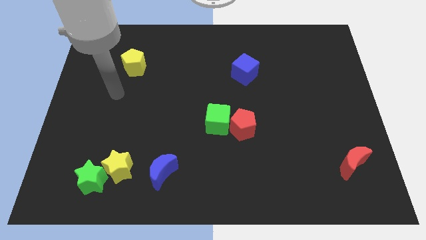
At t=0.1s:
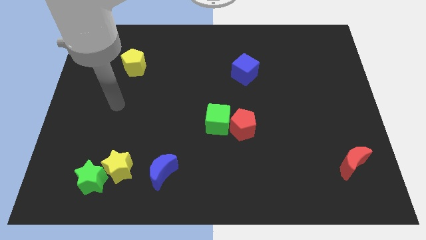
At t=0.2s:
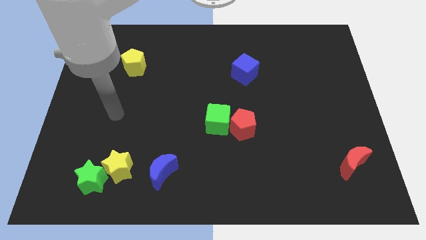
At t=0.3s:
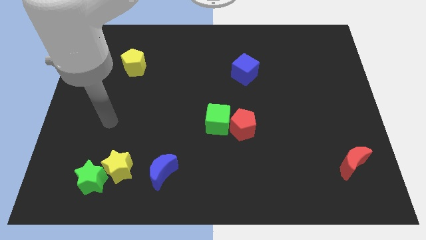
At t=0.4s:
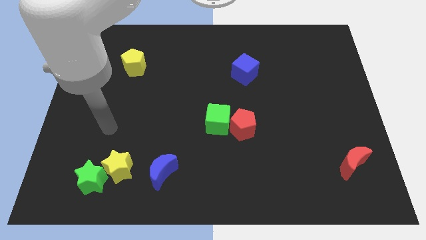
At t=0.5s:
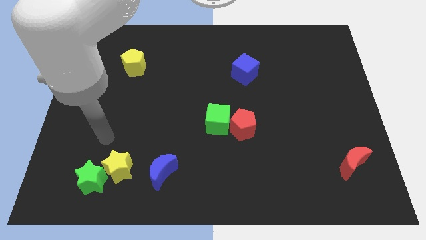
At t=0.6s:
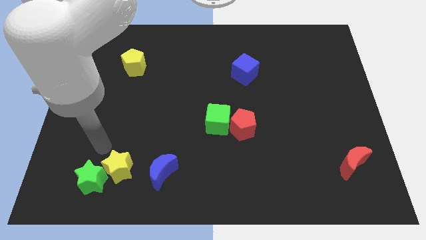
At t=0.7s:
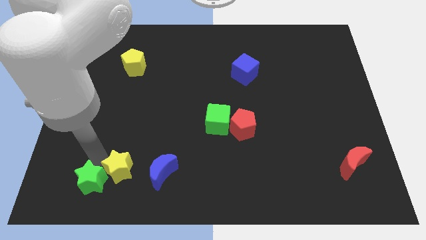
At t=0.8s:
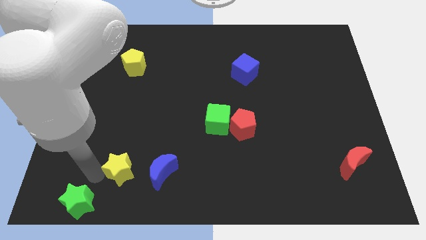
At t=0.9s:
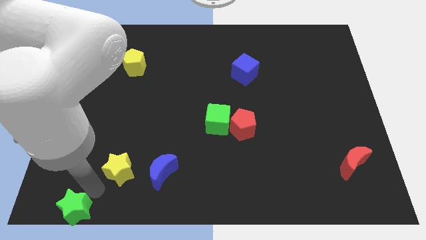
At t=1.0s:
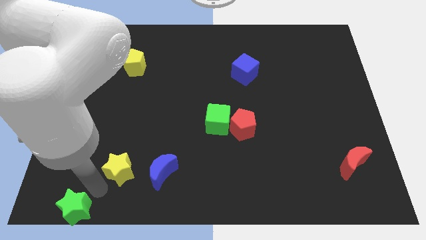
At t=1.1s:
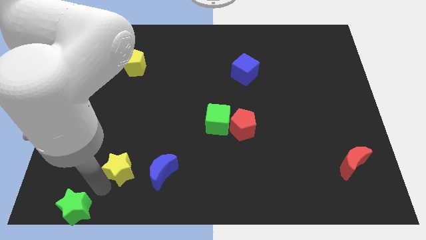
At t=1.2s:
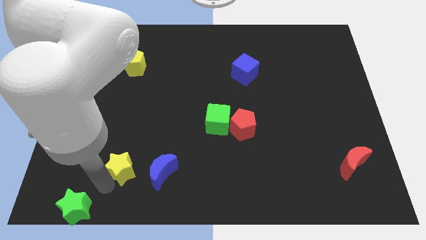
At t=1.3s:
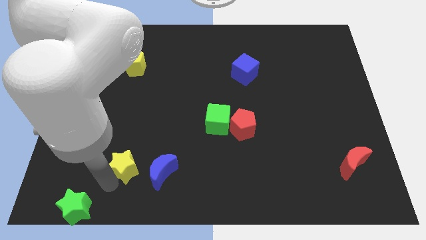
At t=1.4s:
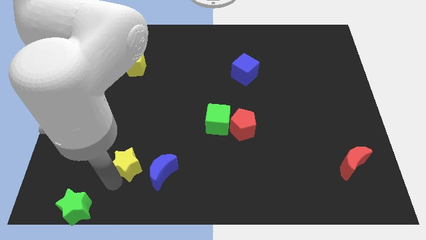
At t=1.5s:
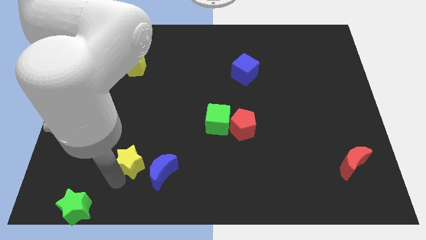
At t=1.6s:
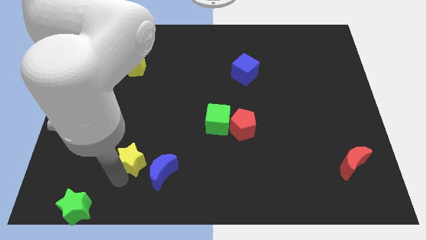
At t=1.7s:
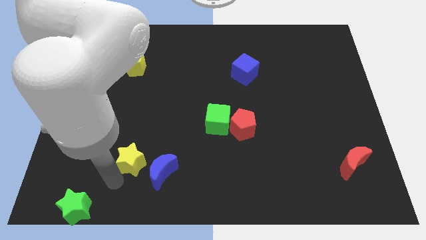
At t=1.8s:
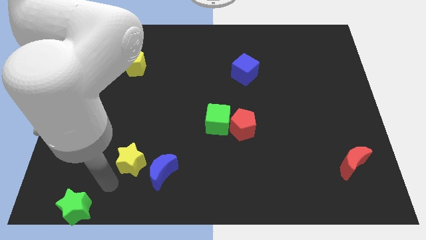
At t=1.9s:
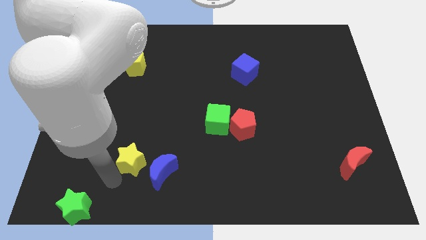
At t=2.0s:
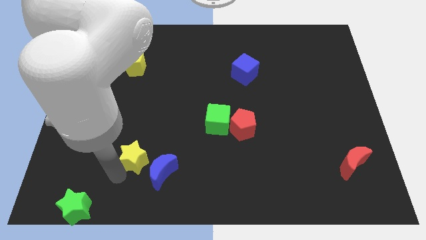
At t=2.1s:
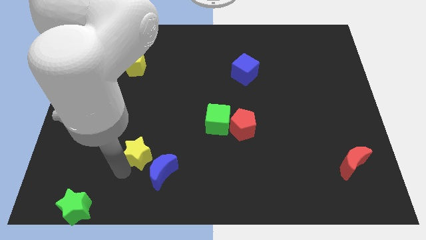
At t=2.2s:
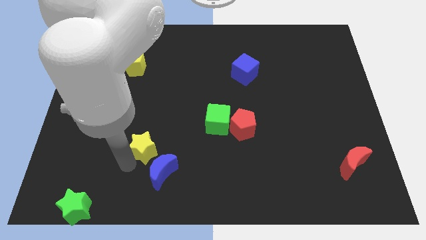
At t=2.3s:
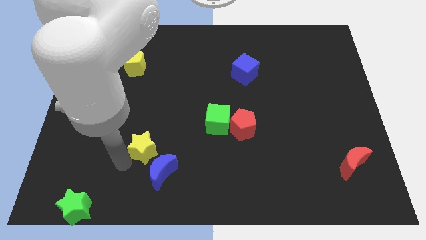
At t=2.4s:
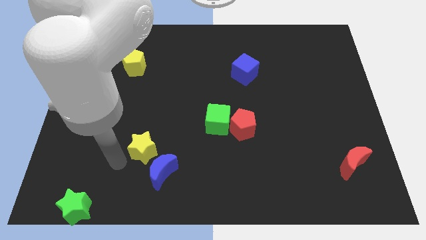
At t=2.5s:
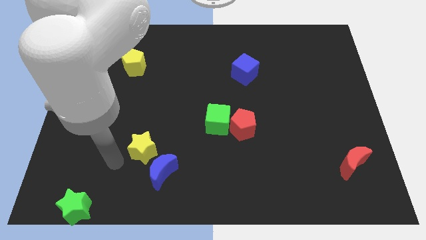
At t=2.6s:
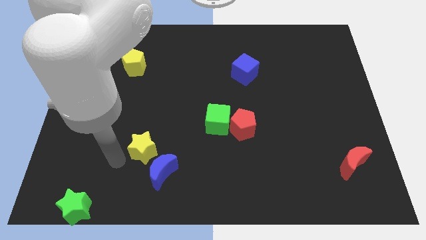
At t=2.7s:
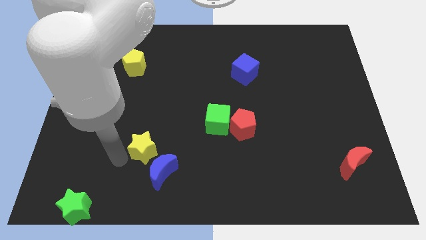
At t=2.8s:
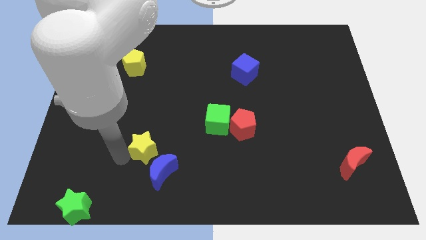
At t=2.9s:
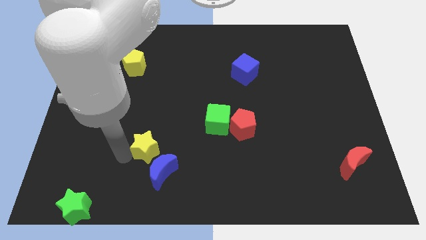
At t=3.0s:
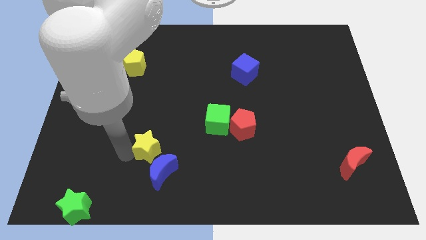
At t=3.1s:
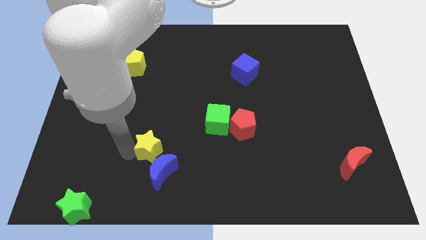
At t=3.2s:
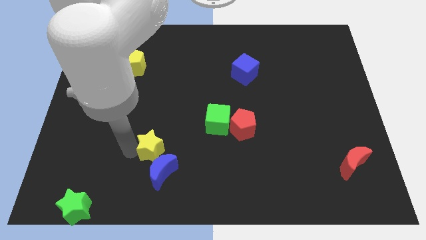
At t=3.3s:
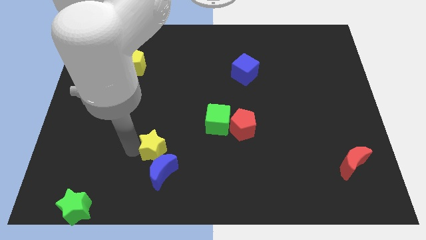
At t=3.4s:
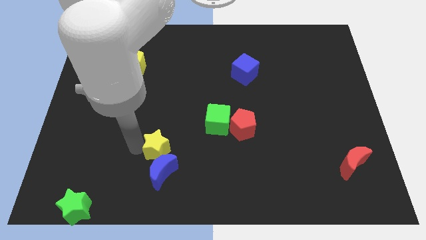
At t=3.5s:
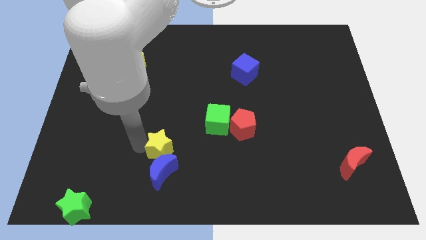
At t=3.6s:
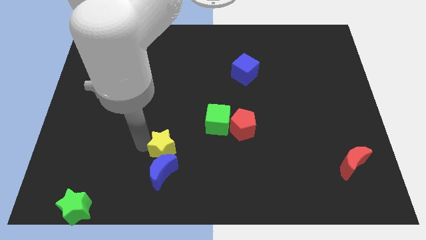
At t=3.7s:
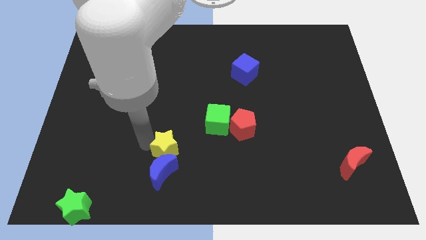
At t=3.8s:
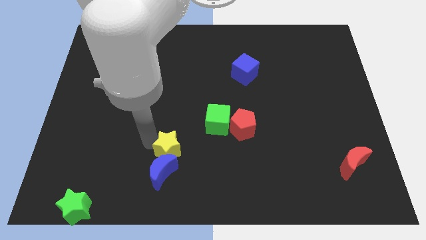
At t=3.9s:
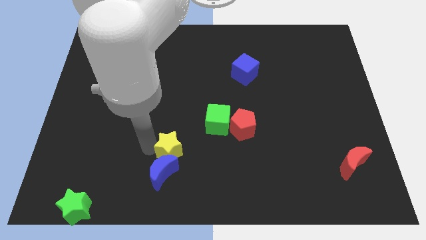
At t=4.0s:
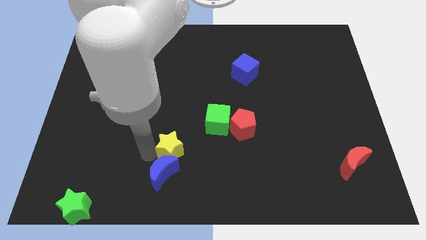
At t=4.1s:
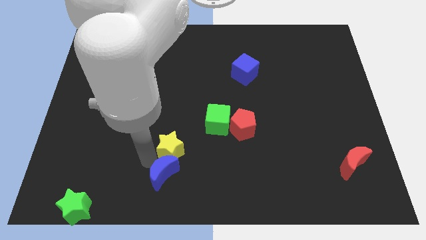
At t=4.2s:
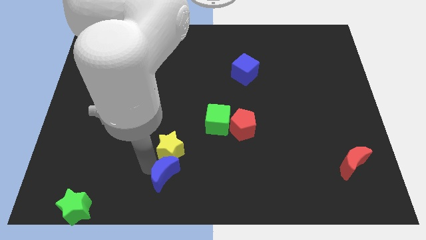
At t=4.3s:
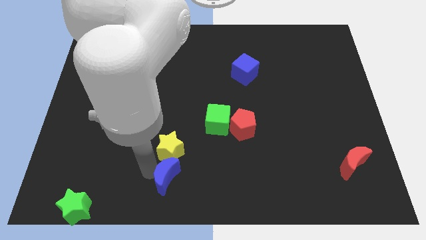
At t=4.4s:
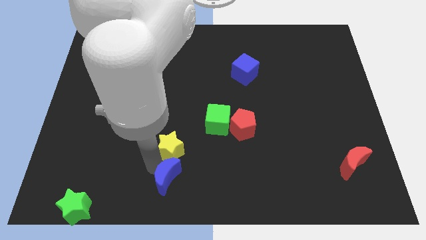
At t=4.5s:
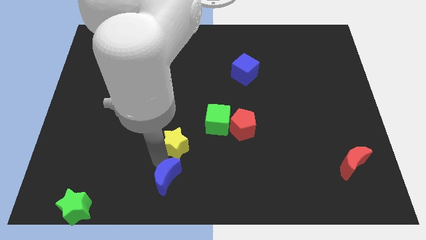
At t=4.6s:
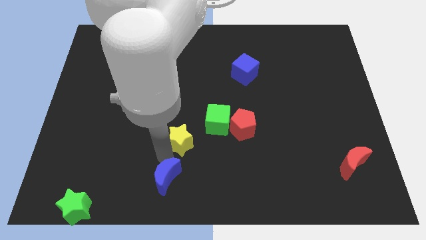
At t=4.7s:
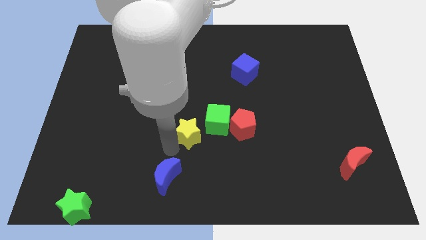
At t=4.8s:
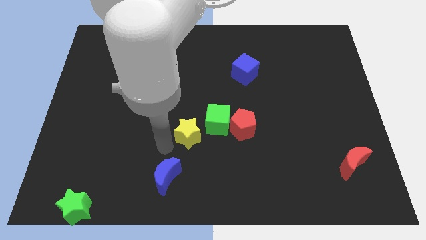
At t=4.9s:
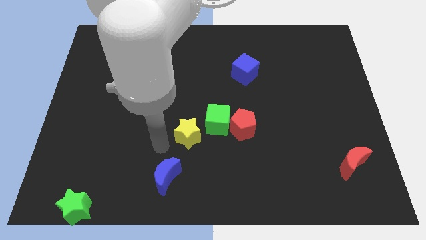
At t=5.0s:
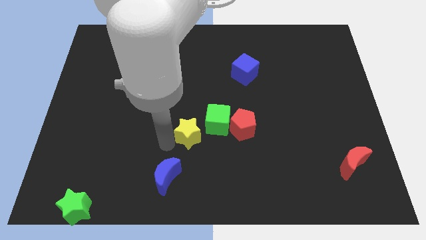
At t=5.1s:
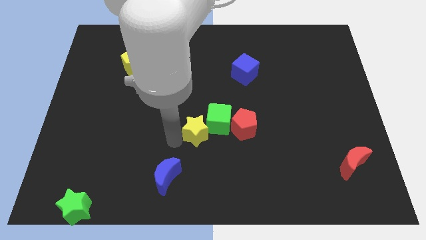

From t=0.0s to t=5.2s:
move the yellow star towards the green cube

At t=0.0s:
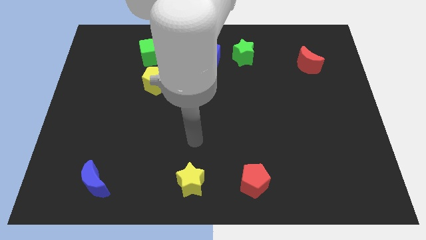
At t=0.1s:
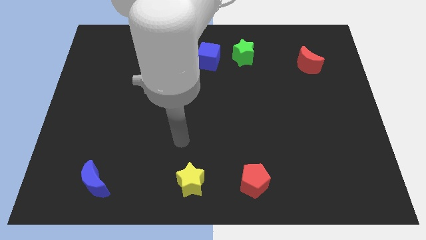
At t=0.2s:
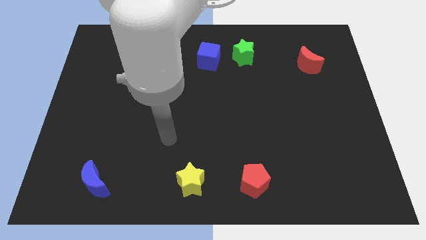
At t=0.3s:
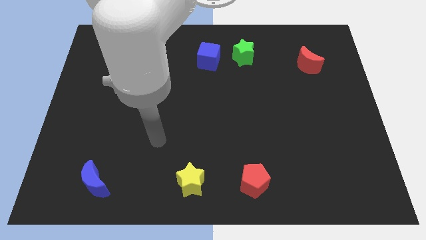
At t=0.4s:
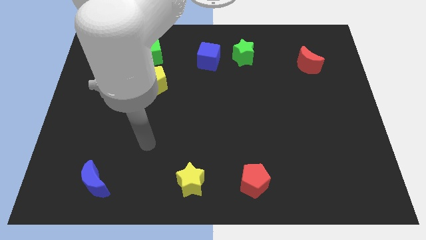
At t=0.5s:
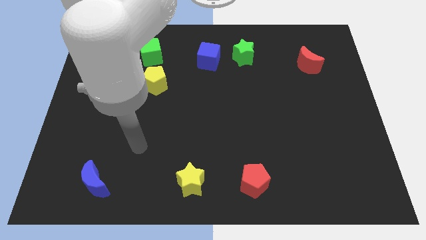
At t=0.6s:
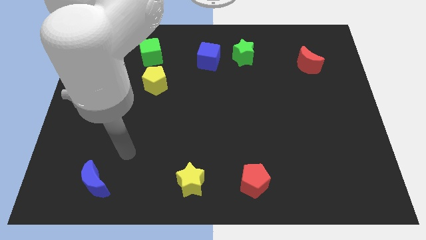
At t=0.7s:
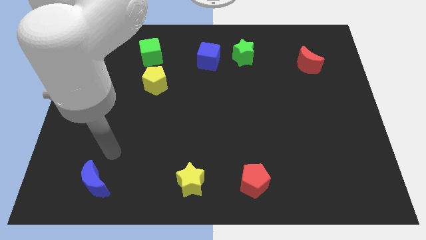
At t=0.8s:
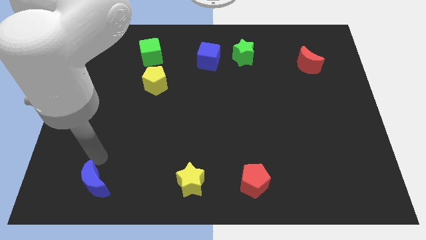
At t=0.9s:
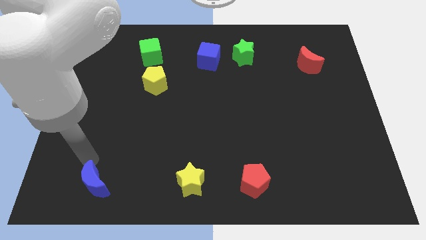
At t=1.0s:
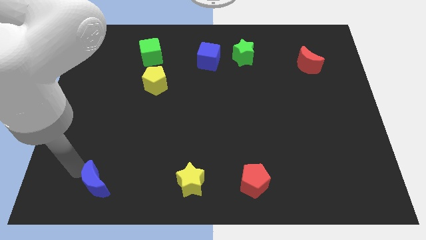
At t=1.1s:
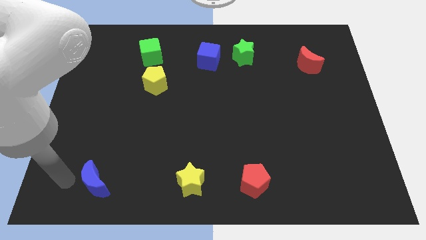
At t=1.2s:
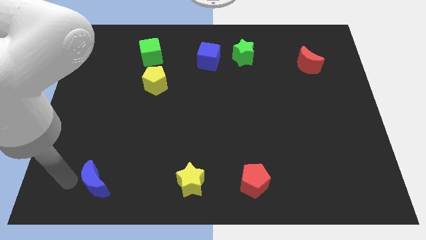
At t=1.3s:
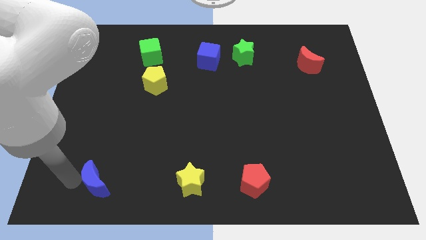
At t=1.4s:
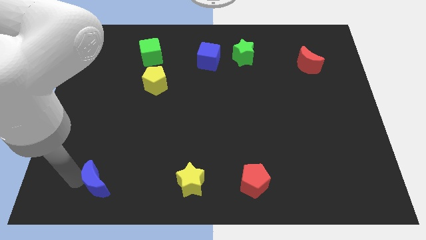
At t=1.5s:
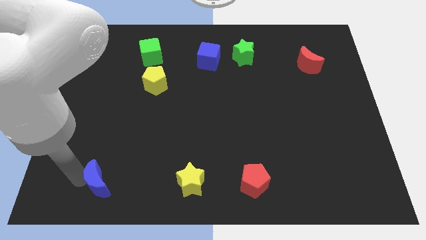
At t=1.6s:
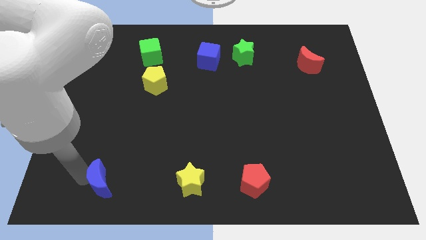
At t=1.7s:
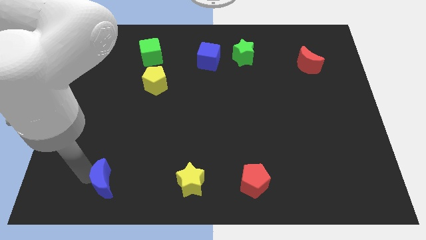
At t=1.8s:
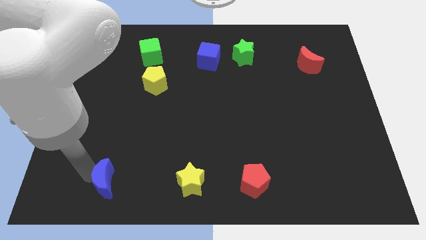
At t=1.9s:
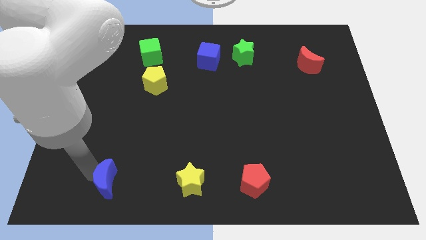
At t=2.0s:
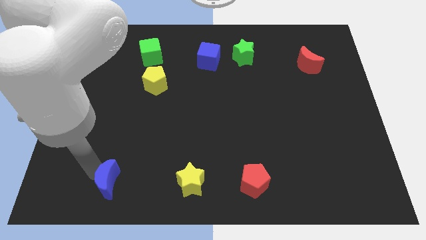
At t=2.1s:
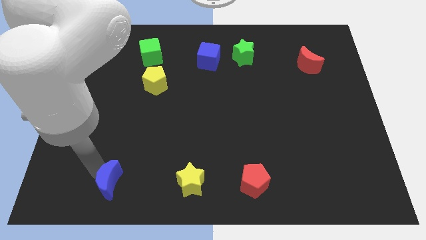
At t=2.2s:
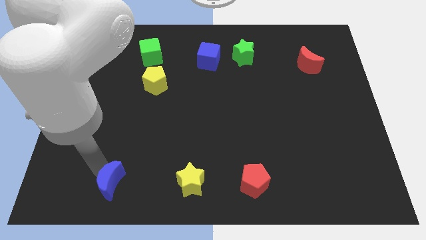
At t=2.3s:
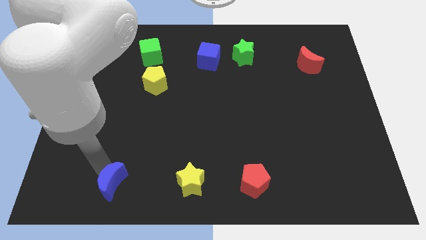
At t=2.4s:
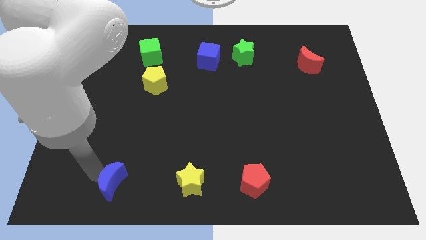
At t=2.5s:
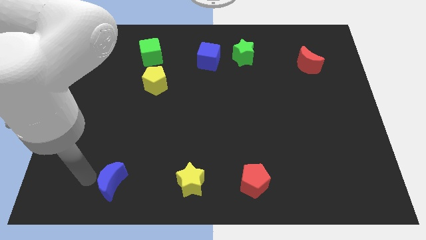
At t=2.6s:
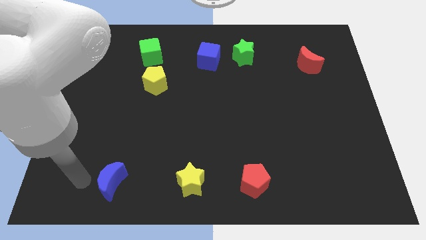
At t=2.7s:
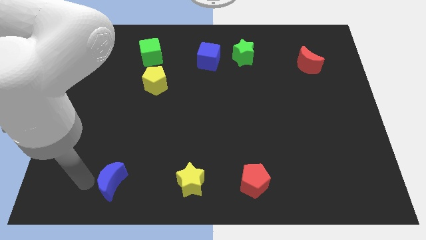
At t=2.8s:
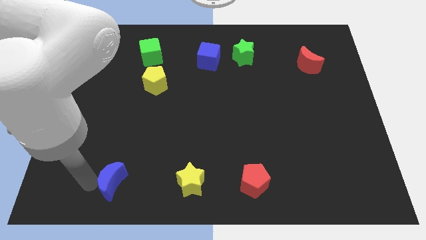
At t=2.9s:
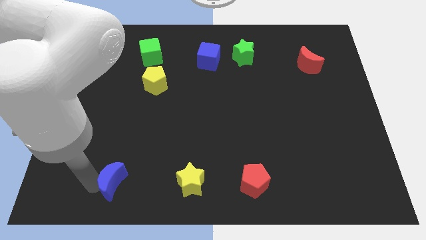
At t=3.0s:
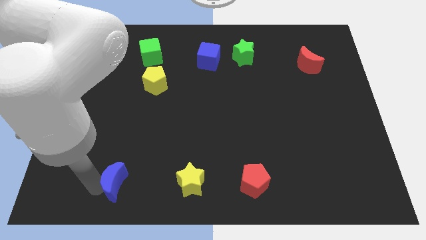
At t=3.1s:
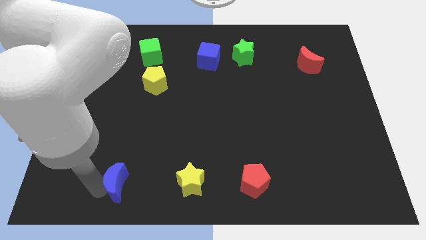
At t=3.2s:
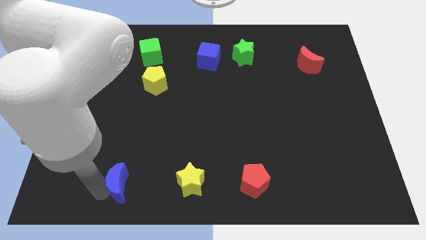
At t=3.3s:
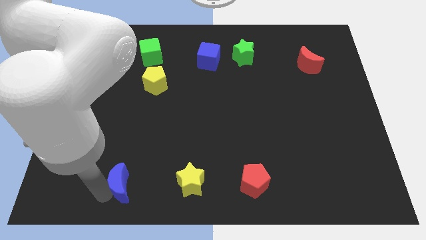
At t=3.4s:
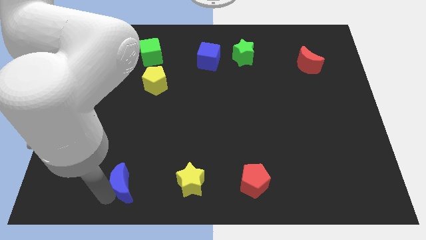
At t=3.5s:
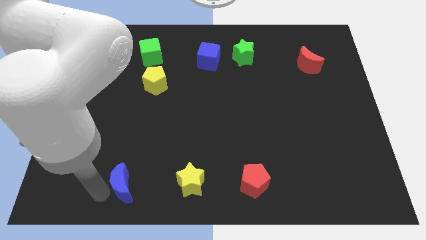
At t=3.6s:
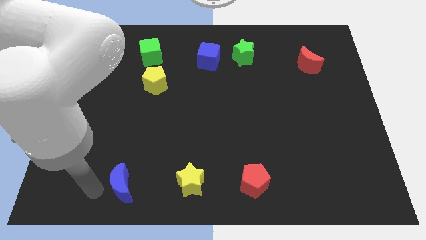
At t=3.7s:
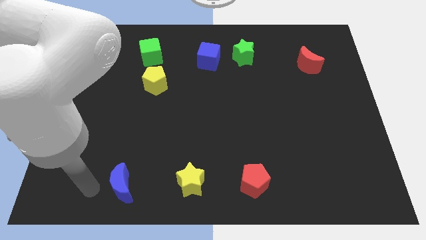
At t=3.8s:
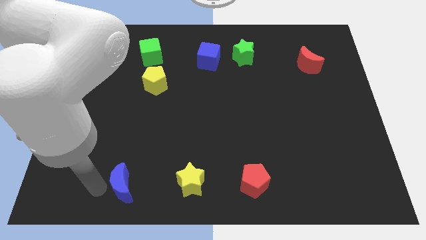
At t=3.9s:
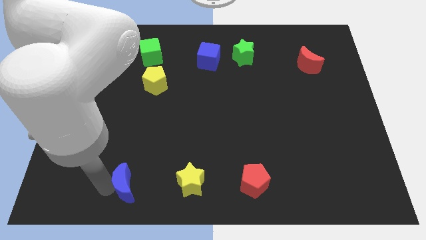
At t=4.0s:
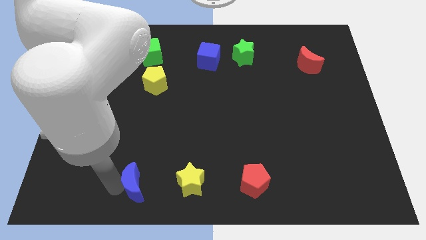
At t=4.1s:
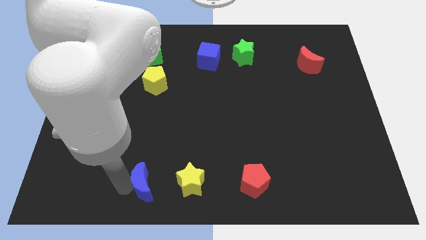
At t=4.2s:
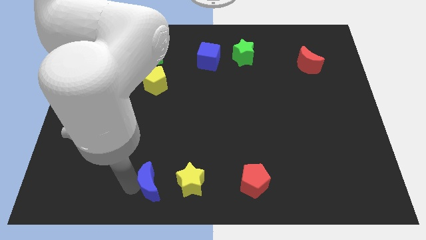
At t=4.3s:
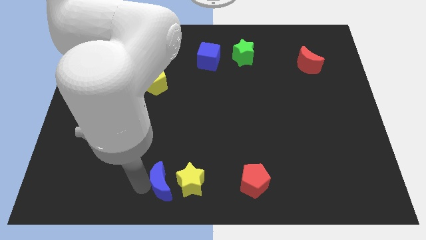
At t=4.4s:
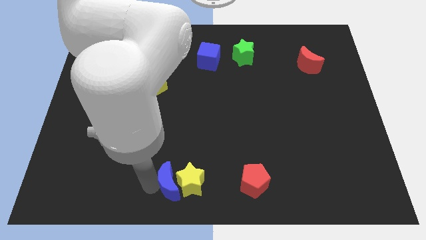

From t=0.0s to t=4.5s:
put the blue moon next to the yellow star
